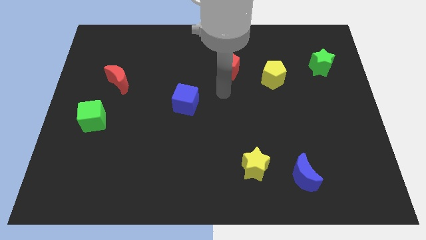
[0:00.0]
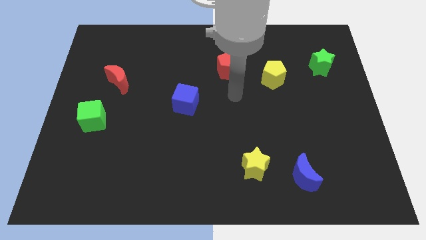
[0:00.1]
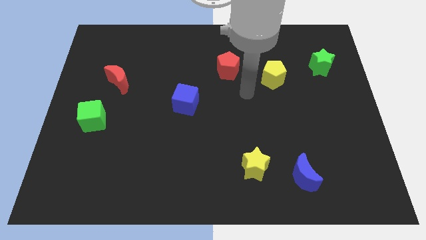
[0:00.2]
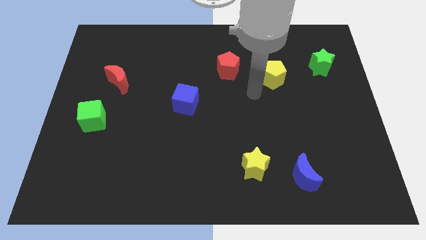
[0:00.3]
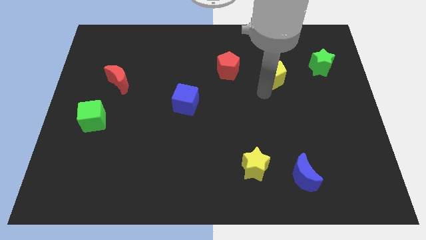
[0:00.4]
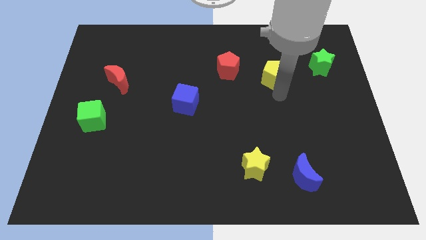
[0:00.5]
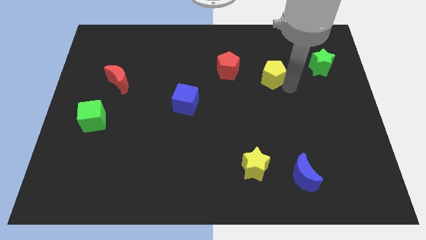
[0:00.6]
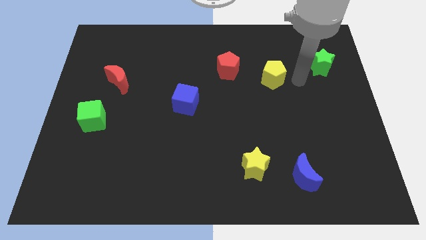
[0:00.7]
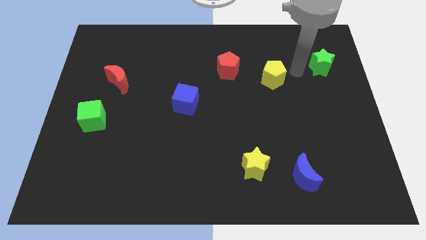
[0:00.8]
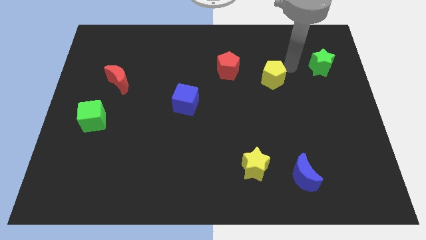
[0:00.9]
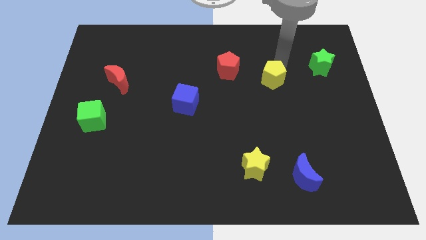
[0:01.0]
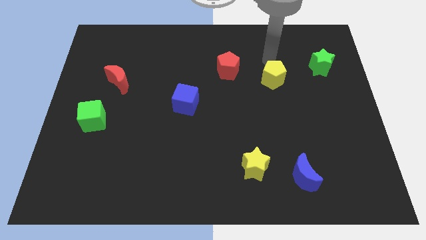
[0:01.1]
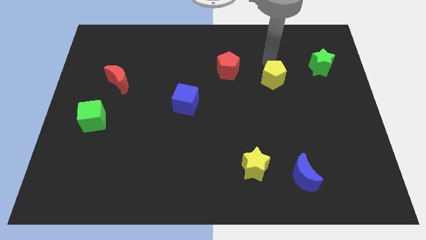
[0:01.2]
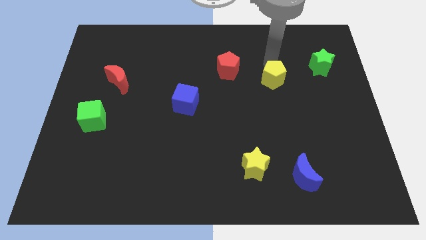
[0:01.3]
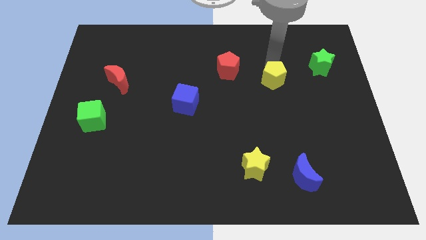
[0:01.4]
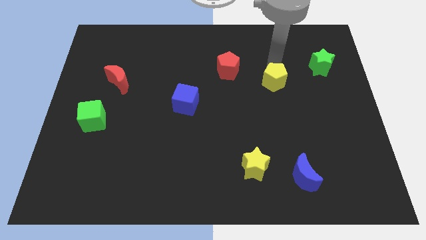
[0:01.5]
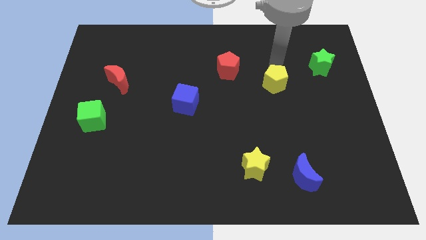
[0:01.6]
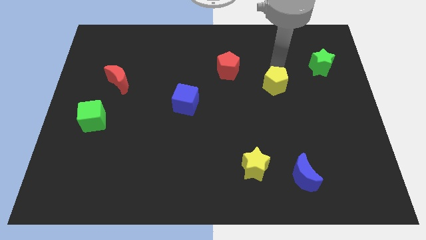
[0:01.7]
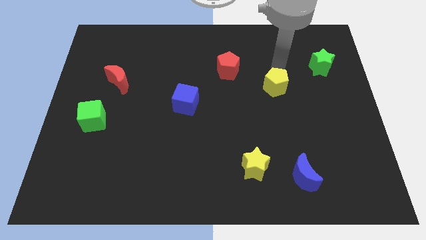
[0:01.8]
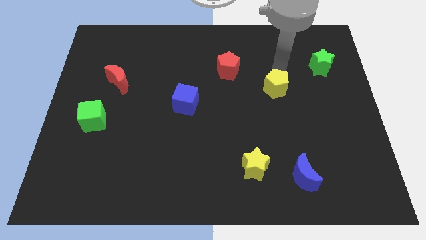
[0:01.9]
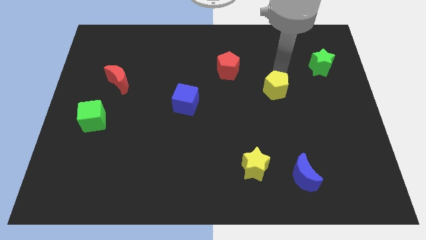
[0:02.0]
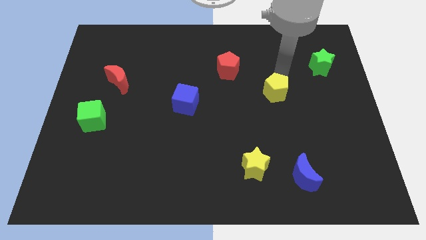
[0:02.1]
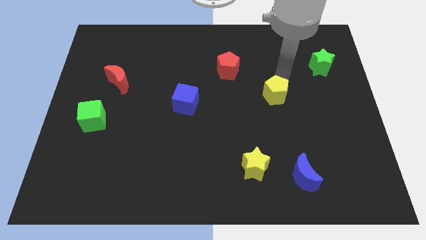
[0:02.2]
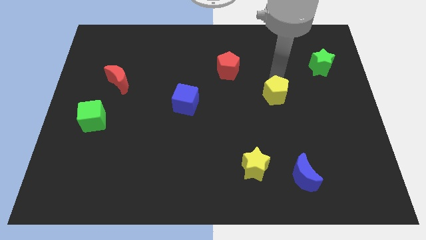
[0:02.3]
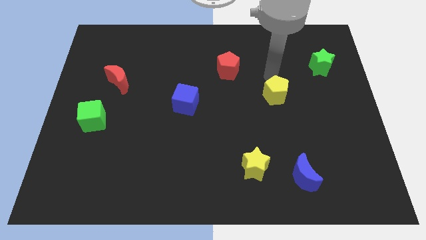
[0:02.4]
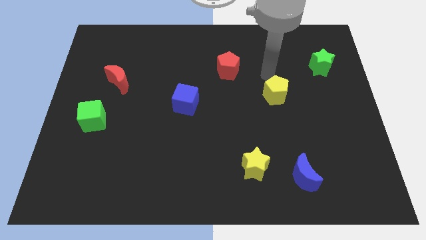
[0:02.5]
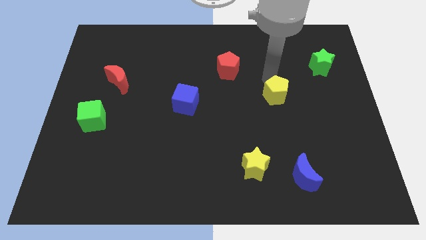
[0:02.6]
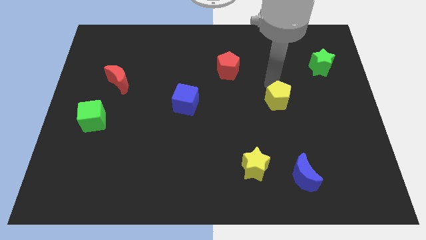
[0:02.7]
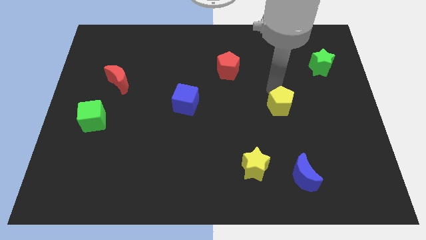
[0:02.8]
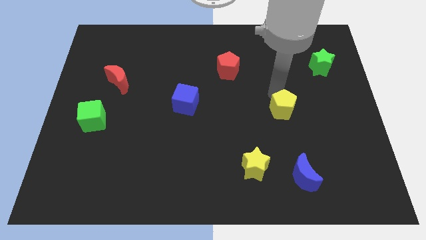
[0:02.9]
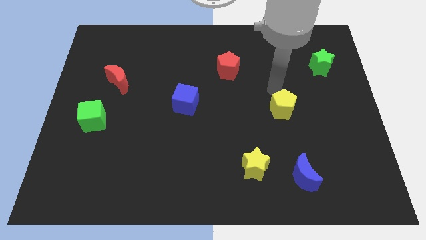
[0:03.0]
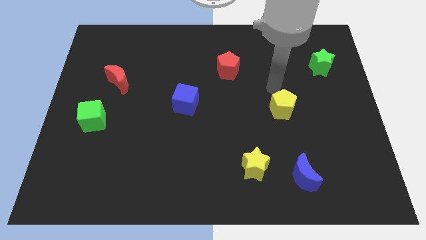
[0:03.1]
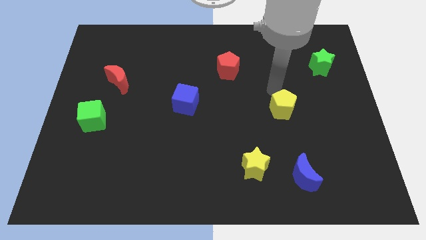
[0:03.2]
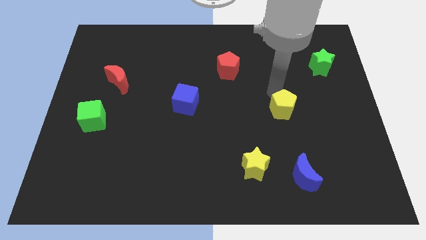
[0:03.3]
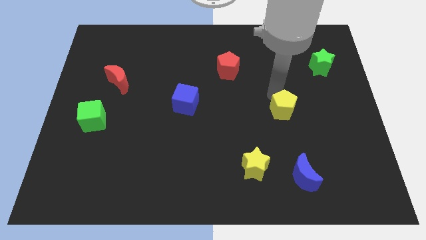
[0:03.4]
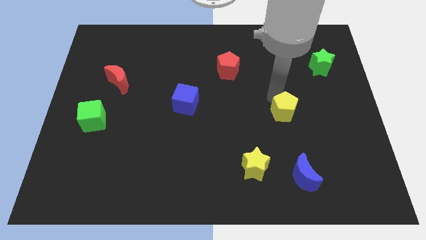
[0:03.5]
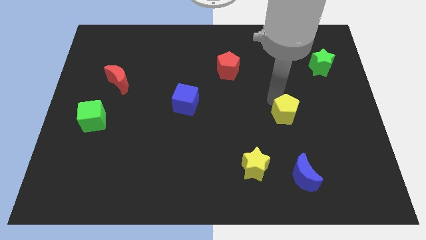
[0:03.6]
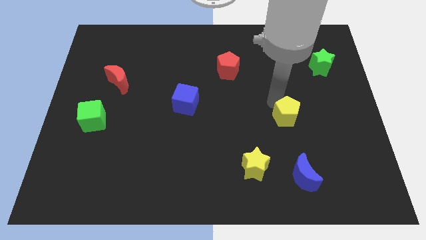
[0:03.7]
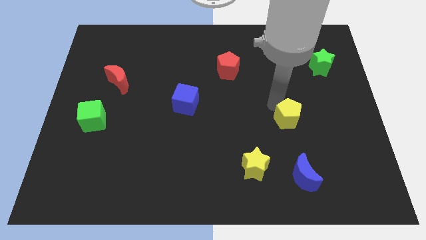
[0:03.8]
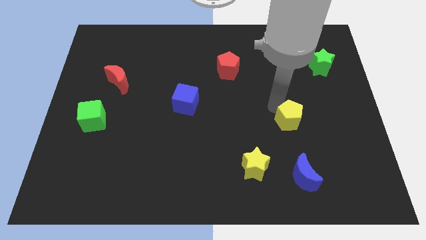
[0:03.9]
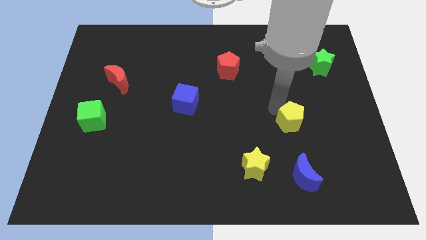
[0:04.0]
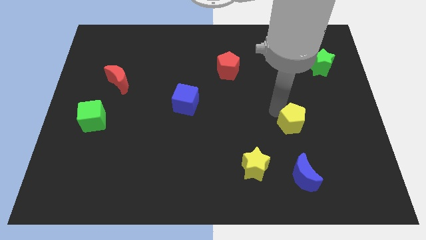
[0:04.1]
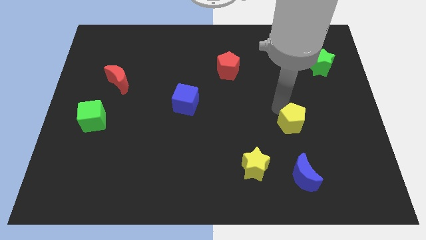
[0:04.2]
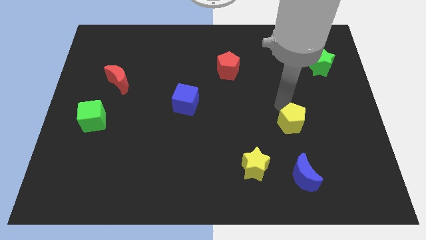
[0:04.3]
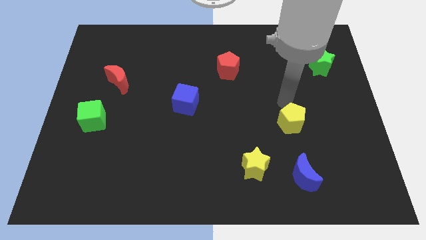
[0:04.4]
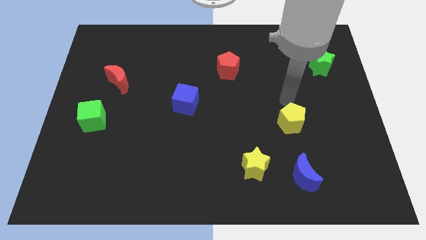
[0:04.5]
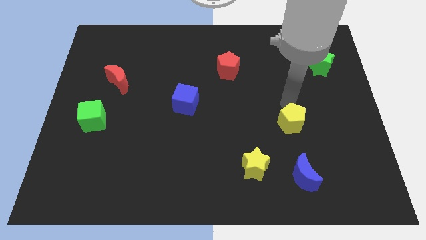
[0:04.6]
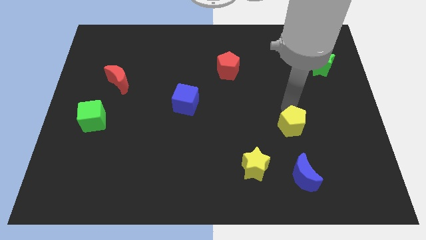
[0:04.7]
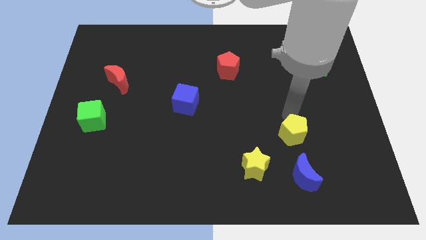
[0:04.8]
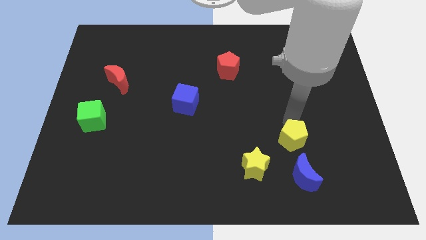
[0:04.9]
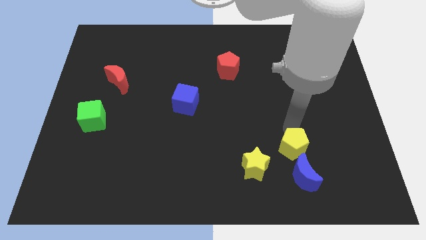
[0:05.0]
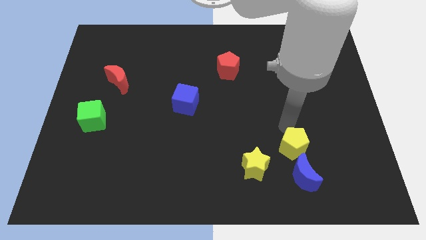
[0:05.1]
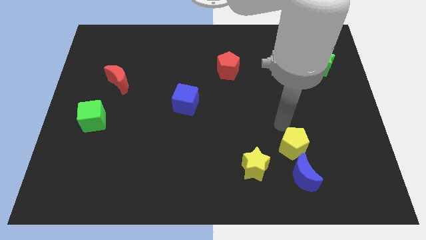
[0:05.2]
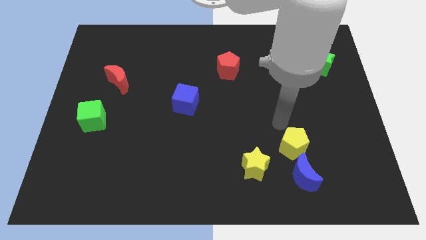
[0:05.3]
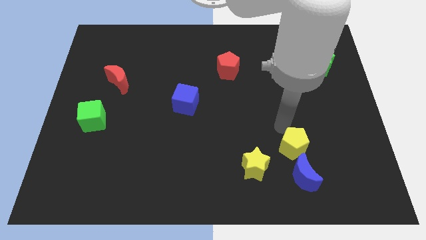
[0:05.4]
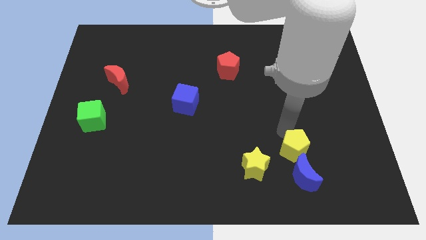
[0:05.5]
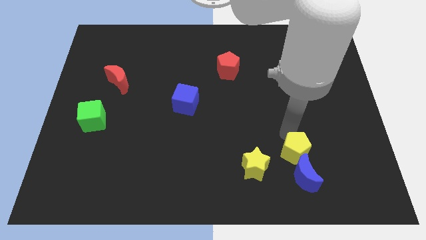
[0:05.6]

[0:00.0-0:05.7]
push the yellow pentagon close to the blue moon

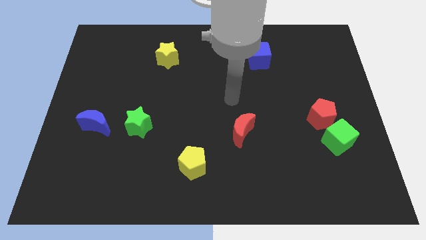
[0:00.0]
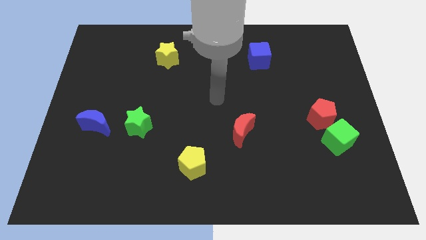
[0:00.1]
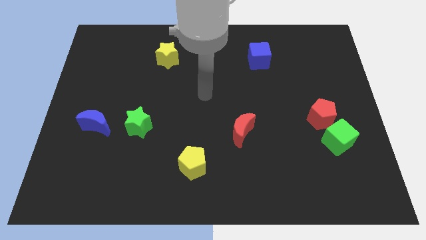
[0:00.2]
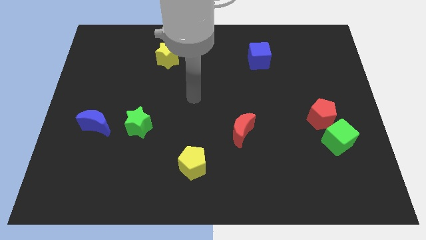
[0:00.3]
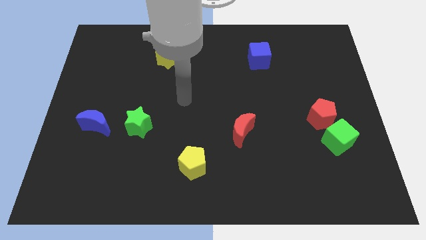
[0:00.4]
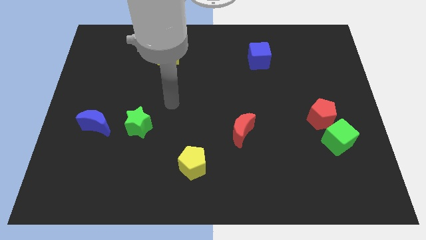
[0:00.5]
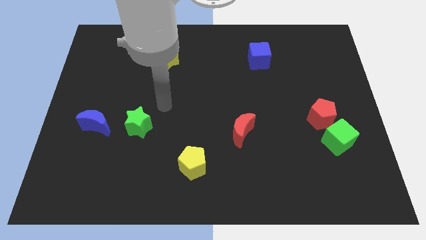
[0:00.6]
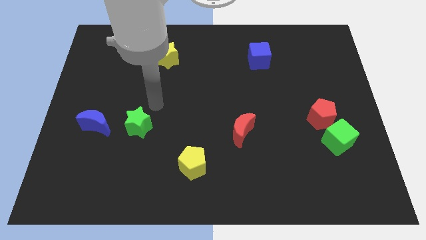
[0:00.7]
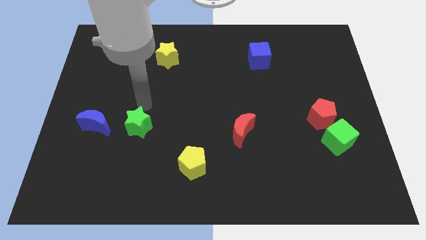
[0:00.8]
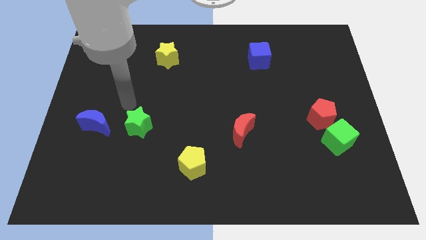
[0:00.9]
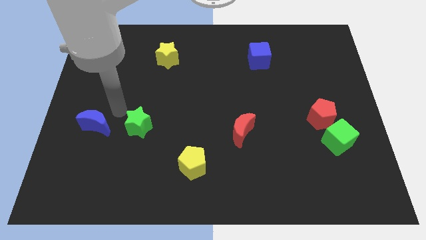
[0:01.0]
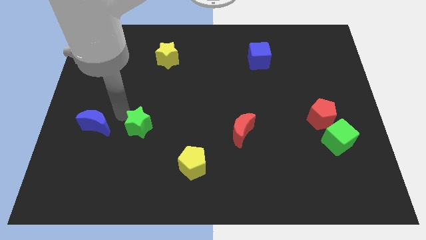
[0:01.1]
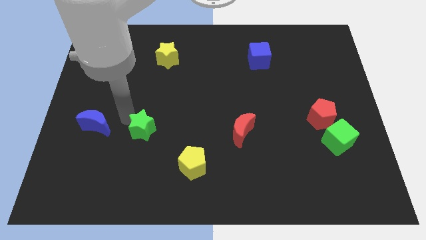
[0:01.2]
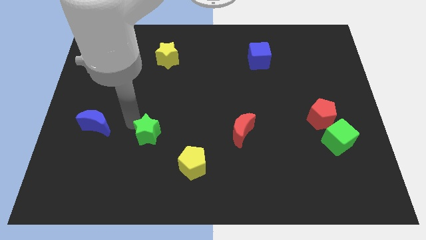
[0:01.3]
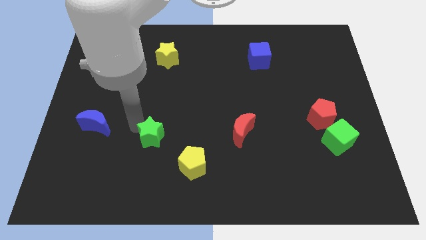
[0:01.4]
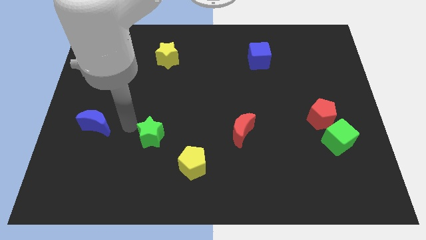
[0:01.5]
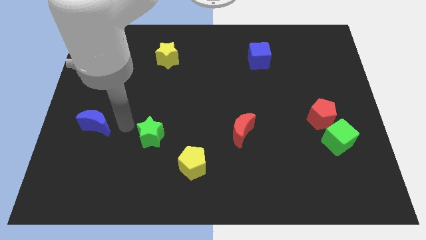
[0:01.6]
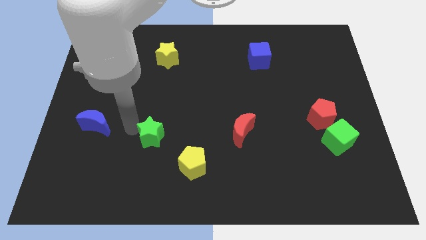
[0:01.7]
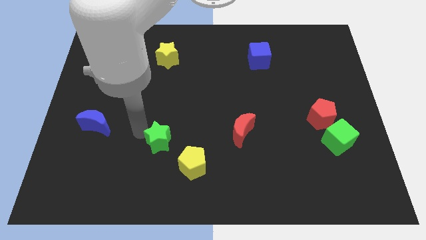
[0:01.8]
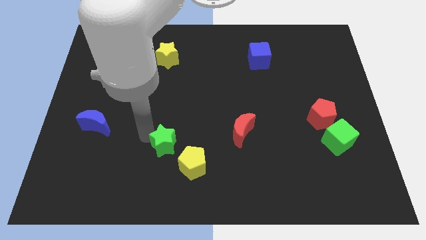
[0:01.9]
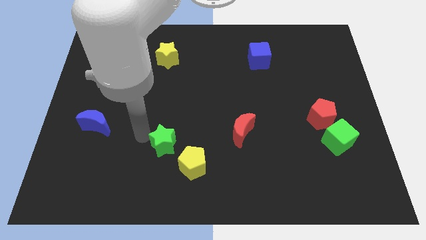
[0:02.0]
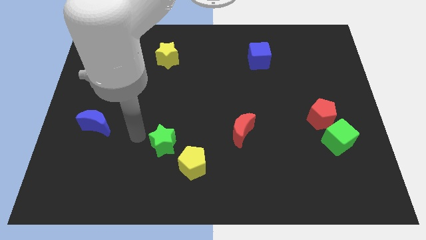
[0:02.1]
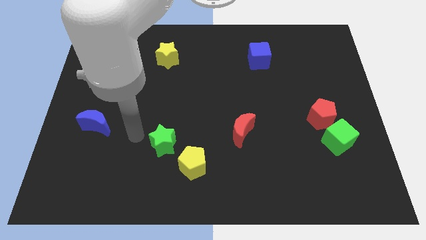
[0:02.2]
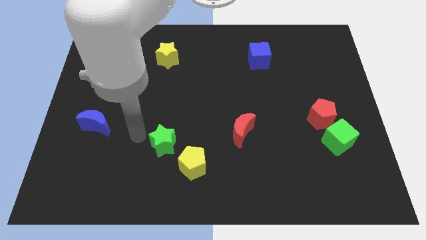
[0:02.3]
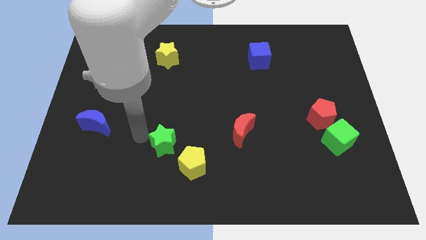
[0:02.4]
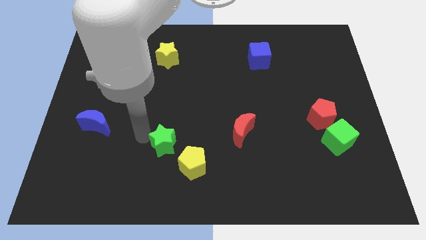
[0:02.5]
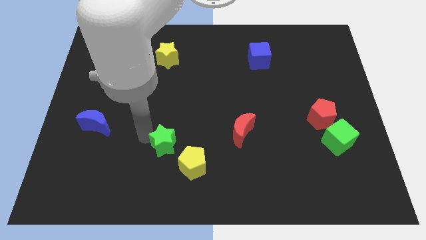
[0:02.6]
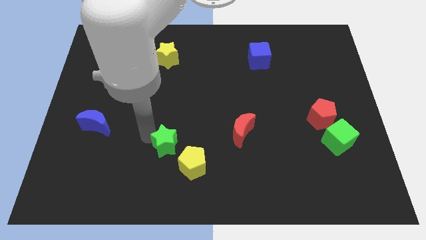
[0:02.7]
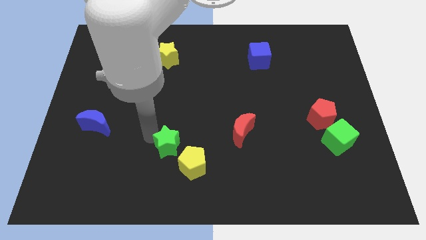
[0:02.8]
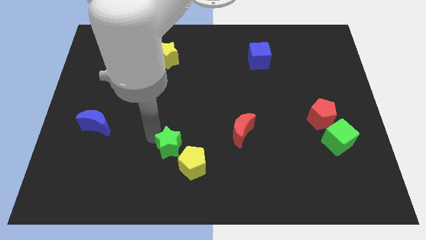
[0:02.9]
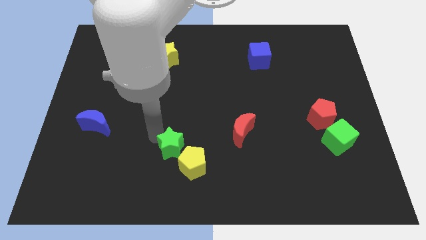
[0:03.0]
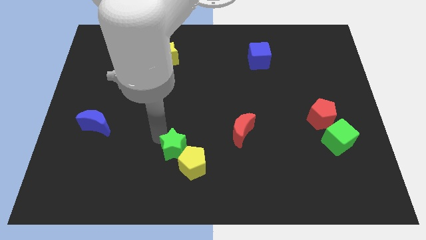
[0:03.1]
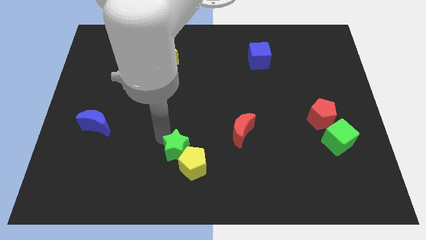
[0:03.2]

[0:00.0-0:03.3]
push the green star next to the yellow pentagon
